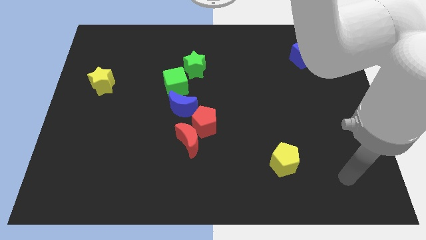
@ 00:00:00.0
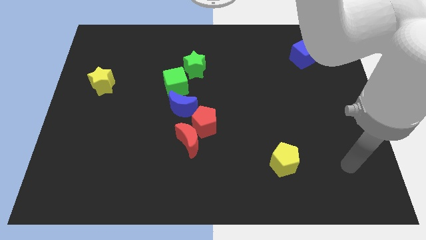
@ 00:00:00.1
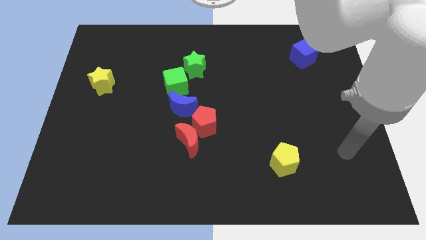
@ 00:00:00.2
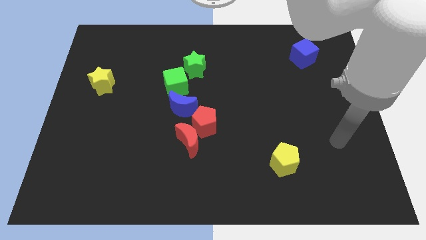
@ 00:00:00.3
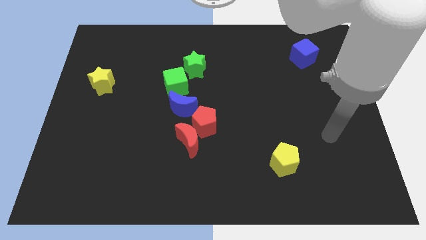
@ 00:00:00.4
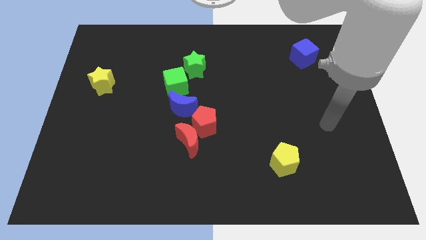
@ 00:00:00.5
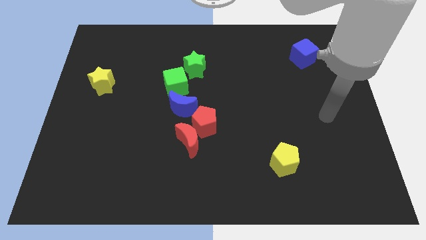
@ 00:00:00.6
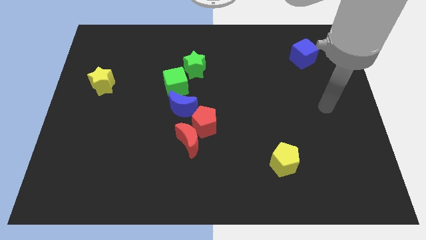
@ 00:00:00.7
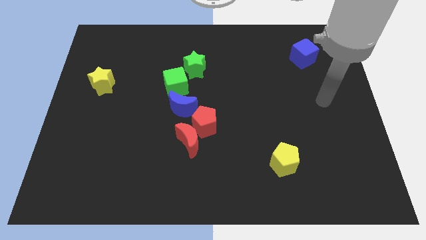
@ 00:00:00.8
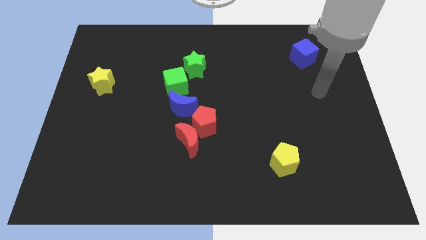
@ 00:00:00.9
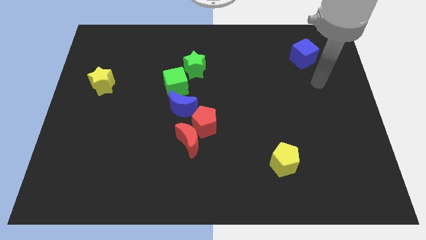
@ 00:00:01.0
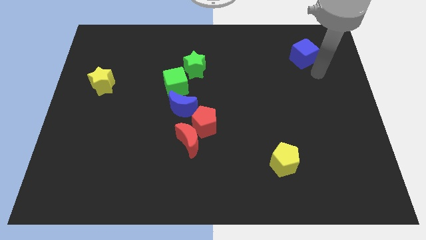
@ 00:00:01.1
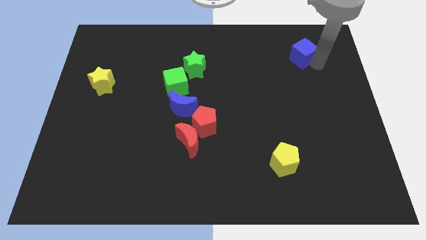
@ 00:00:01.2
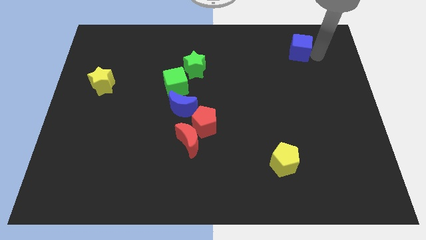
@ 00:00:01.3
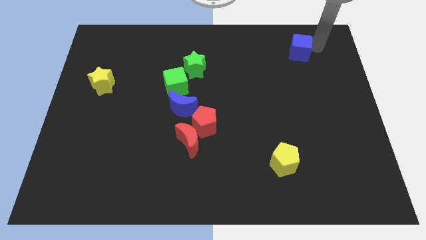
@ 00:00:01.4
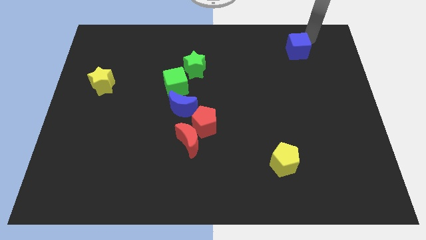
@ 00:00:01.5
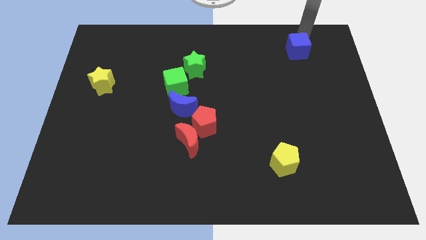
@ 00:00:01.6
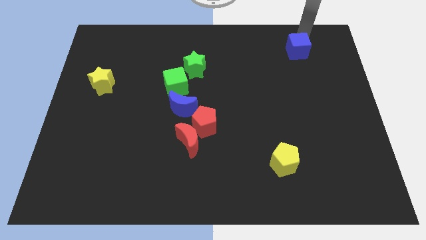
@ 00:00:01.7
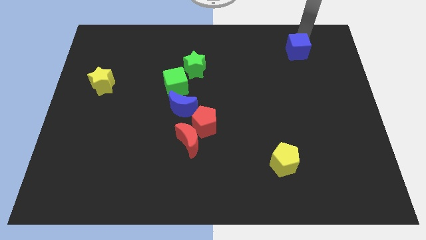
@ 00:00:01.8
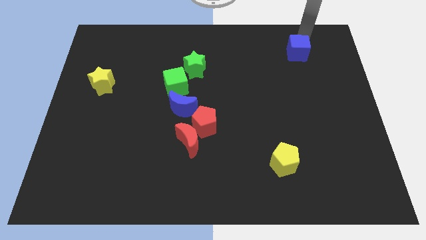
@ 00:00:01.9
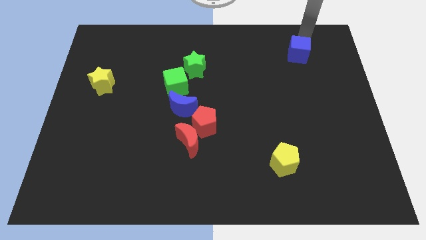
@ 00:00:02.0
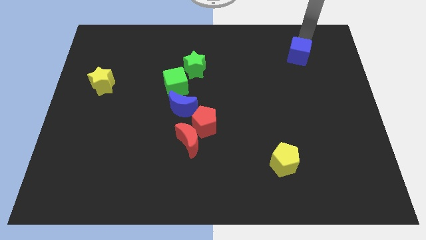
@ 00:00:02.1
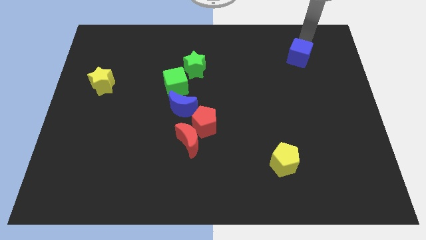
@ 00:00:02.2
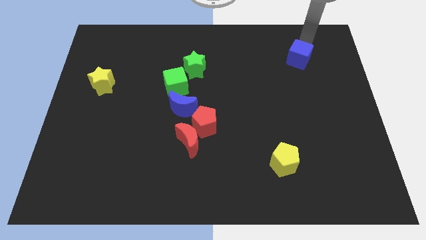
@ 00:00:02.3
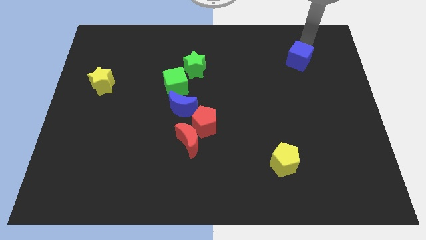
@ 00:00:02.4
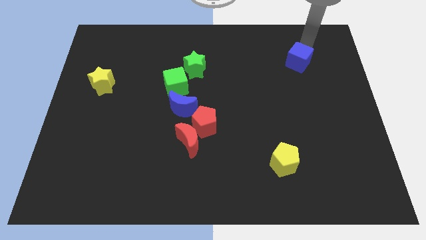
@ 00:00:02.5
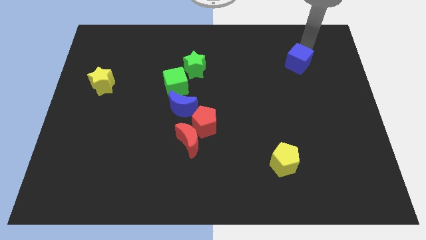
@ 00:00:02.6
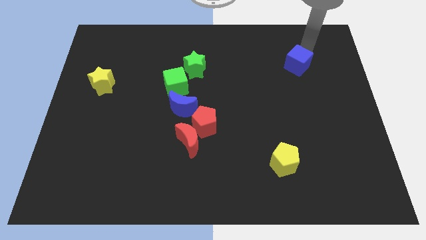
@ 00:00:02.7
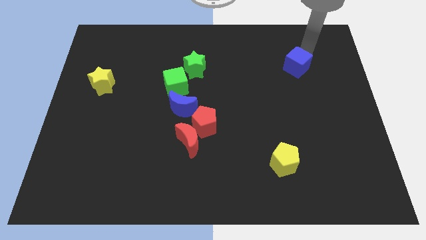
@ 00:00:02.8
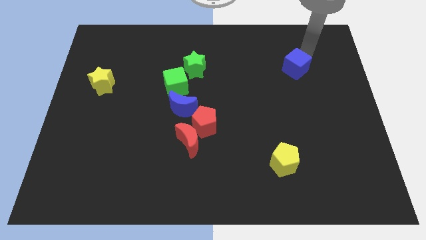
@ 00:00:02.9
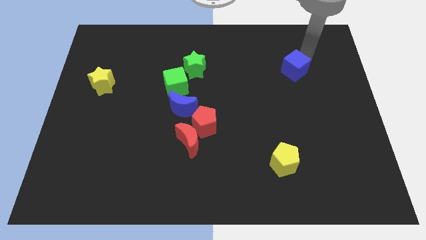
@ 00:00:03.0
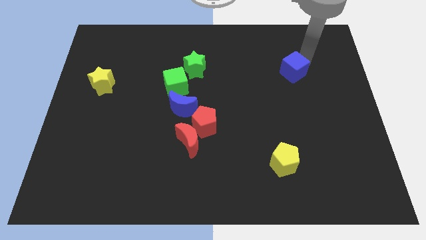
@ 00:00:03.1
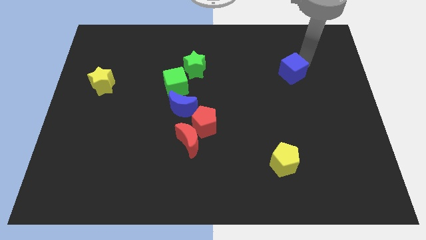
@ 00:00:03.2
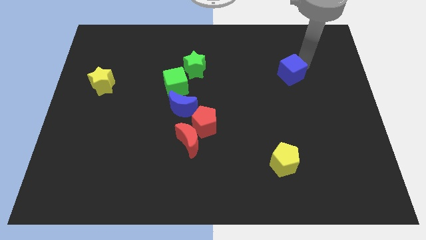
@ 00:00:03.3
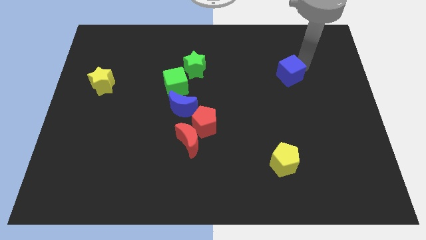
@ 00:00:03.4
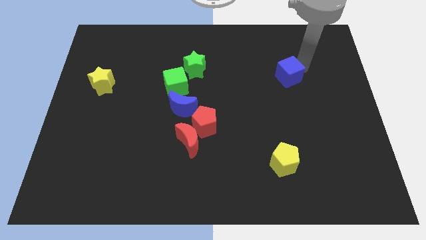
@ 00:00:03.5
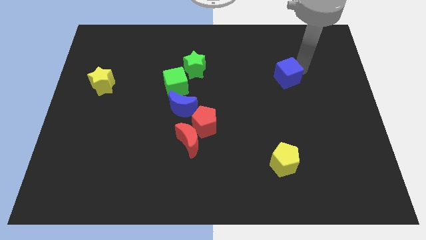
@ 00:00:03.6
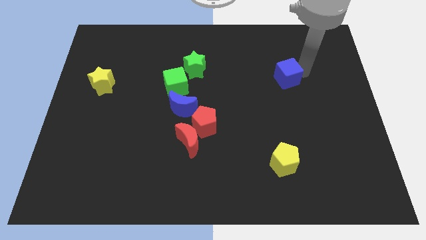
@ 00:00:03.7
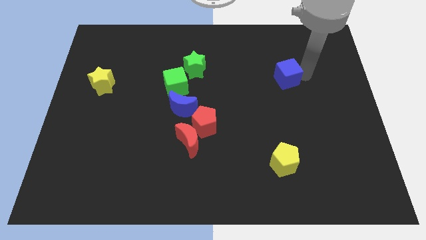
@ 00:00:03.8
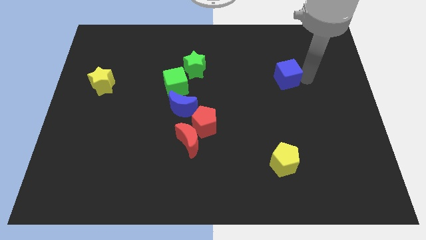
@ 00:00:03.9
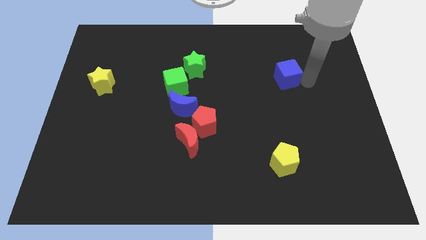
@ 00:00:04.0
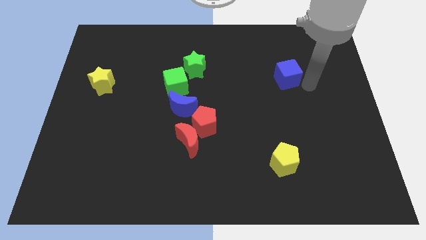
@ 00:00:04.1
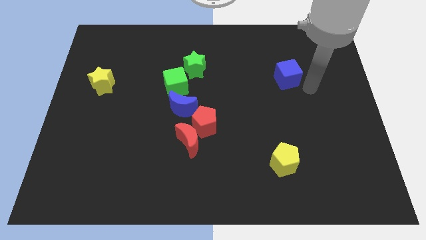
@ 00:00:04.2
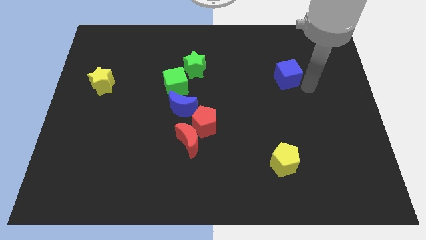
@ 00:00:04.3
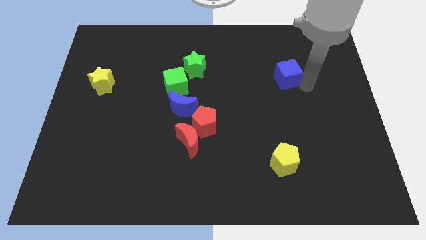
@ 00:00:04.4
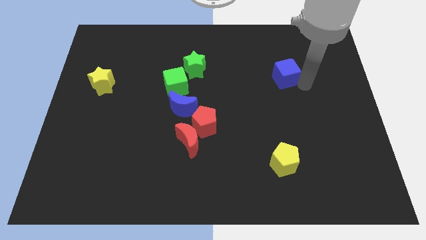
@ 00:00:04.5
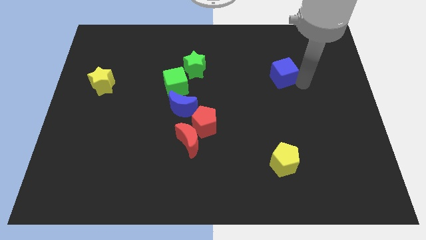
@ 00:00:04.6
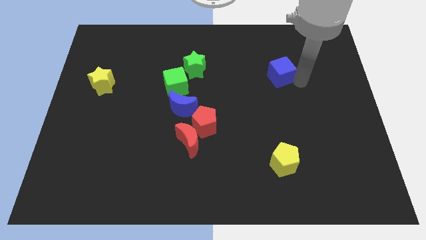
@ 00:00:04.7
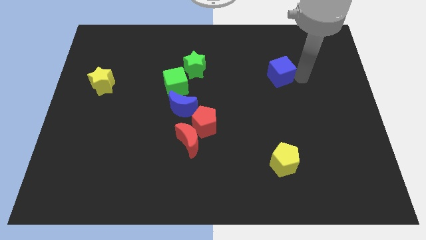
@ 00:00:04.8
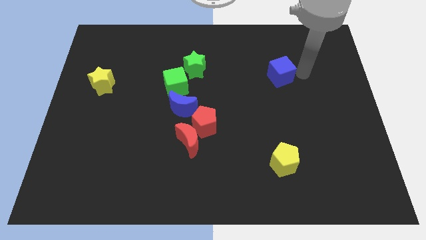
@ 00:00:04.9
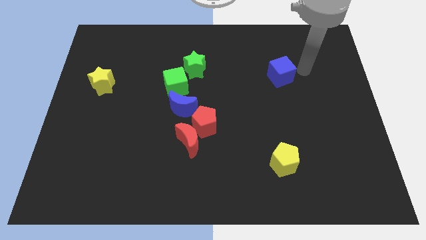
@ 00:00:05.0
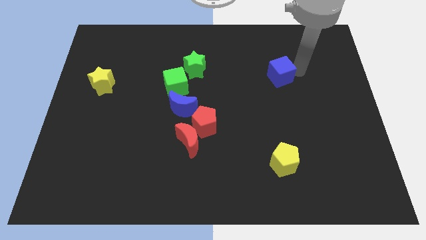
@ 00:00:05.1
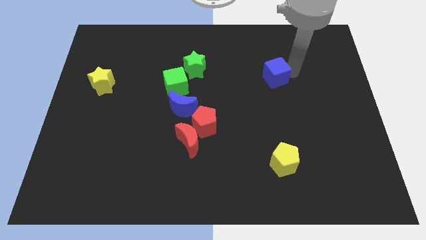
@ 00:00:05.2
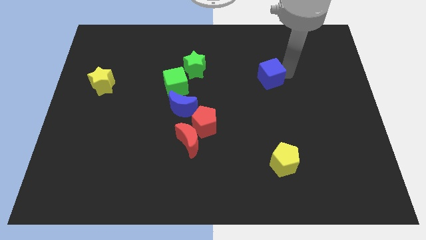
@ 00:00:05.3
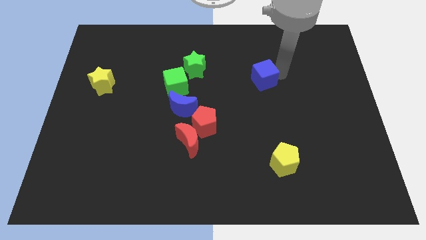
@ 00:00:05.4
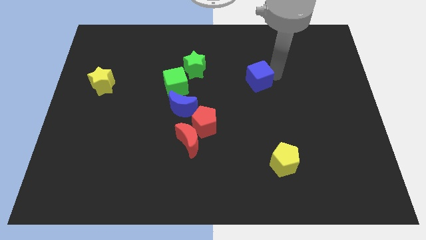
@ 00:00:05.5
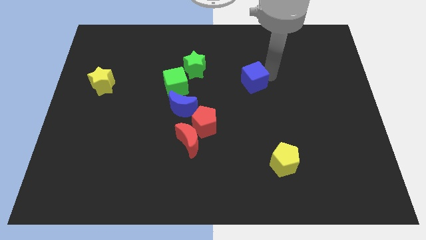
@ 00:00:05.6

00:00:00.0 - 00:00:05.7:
put the blue cube to the center of the board
